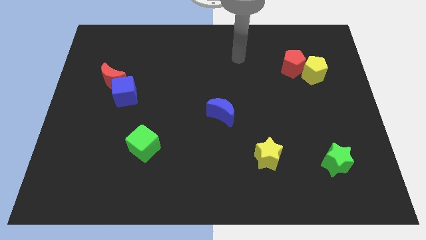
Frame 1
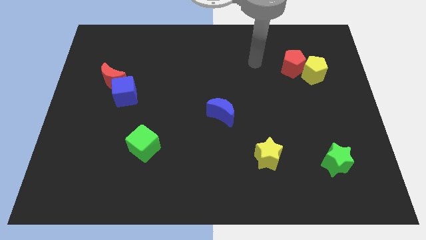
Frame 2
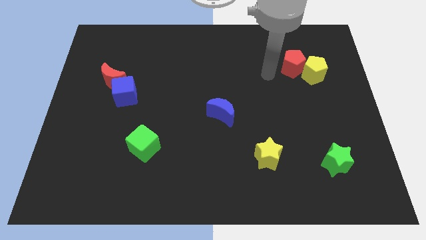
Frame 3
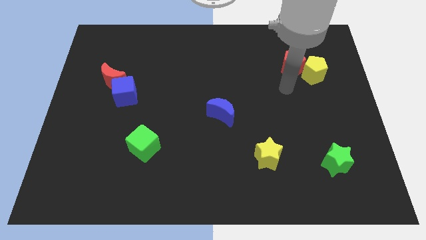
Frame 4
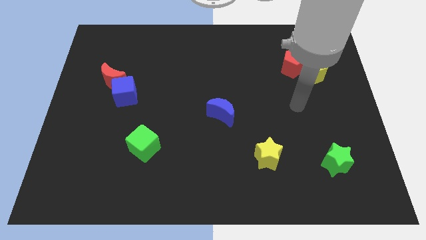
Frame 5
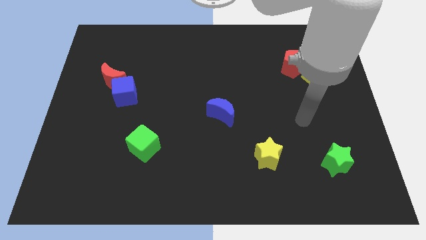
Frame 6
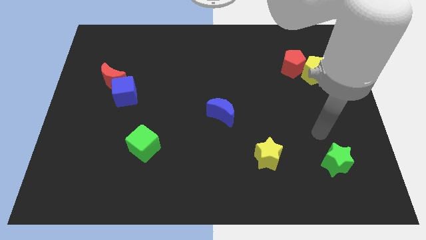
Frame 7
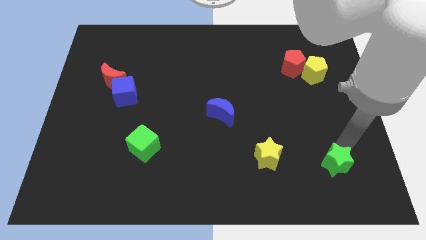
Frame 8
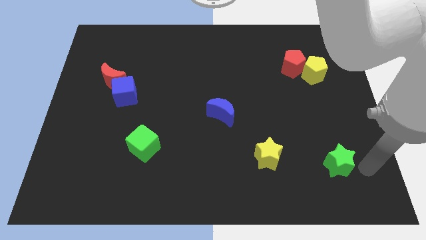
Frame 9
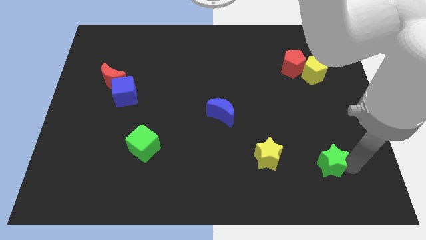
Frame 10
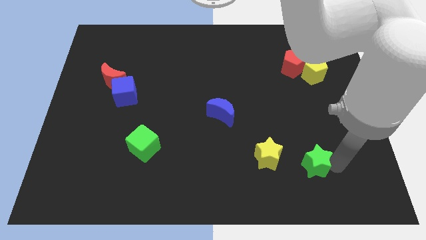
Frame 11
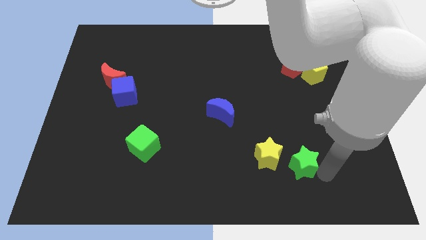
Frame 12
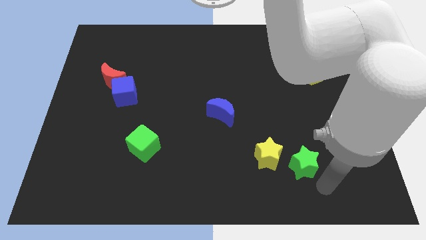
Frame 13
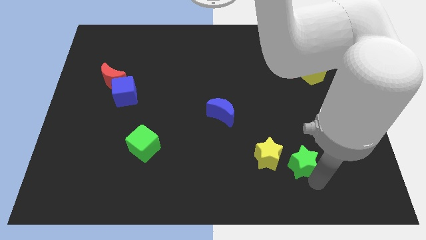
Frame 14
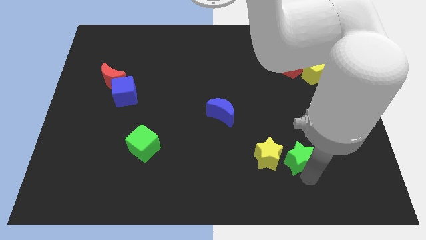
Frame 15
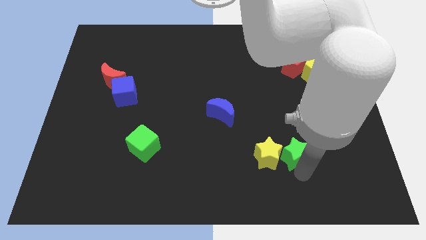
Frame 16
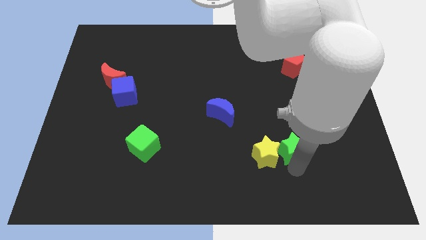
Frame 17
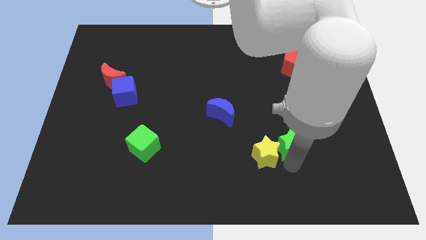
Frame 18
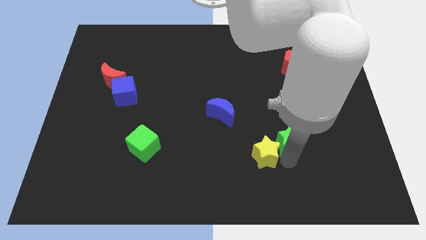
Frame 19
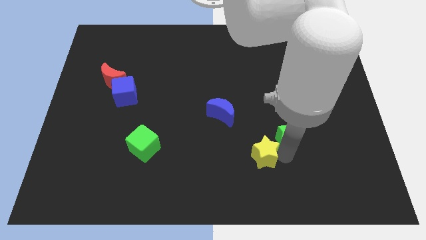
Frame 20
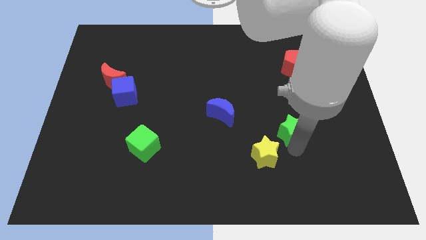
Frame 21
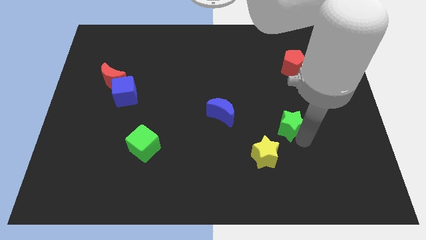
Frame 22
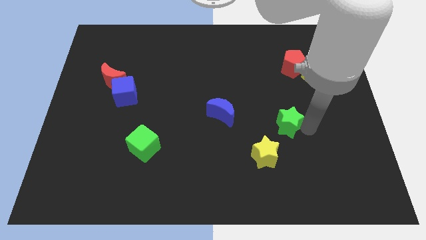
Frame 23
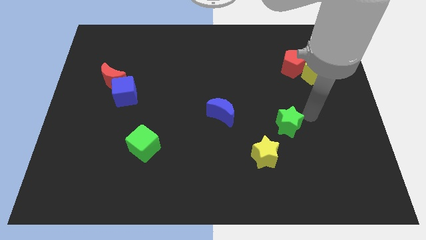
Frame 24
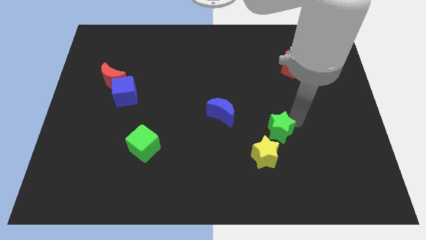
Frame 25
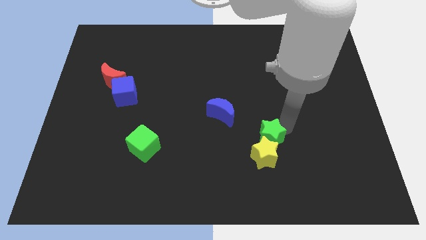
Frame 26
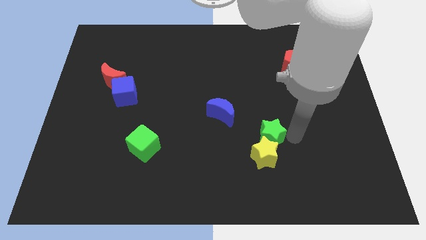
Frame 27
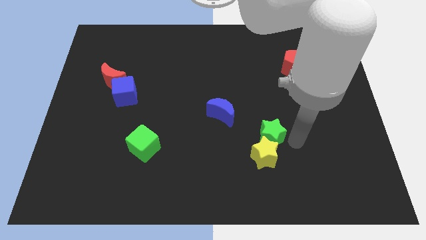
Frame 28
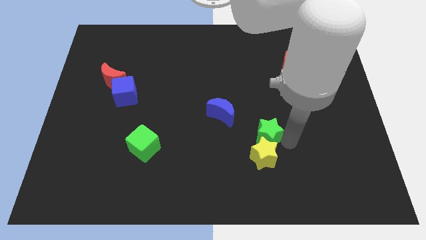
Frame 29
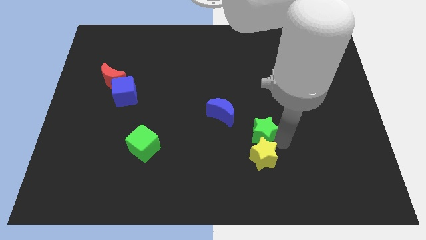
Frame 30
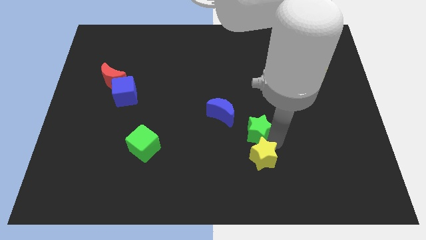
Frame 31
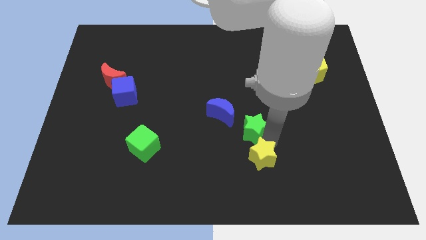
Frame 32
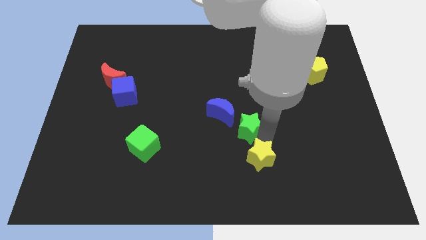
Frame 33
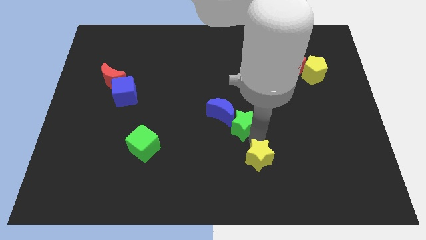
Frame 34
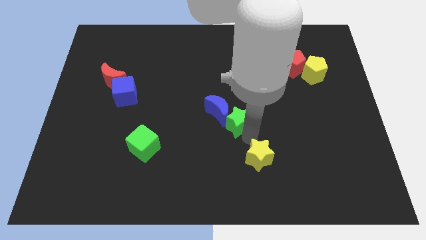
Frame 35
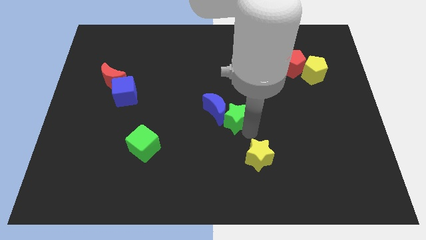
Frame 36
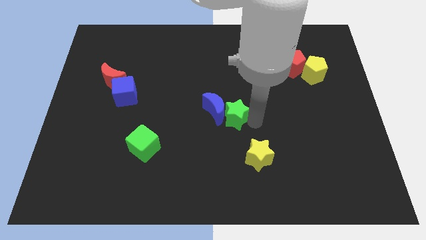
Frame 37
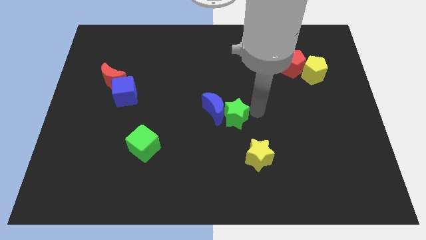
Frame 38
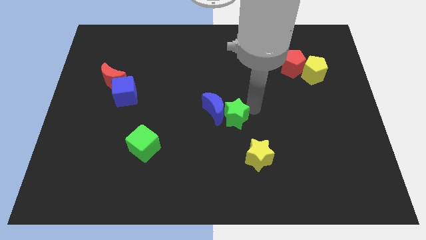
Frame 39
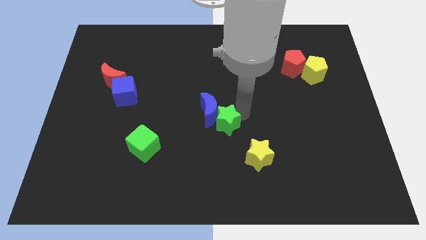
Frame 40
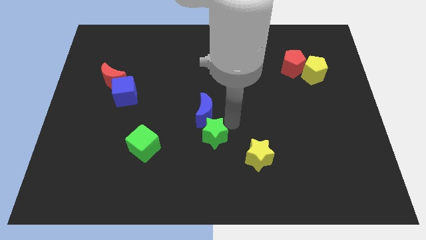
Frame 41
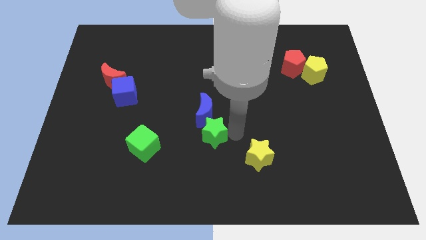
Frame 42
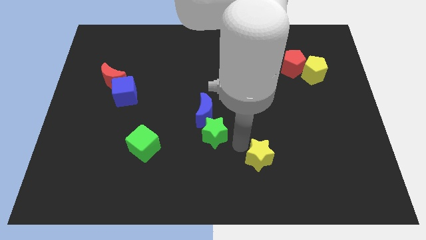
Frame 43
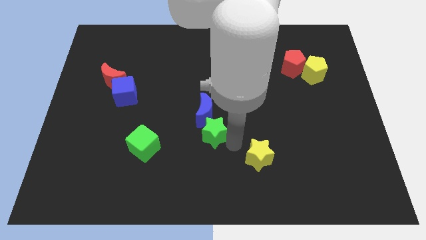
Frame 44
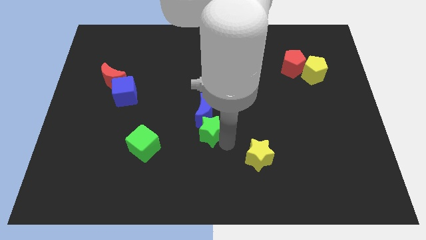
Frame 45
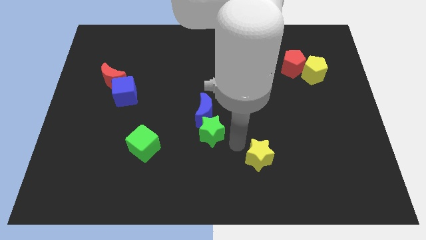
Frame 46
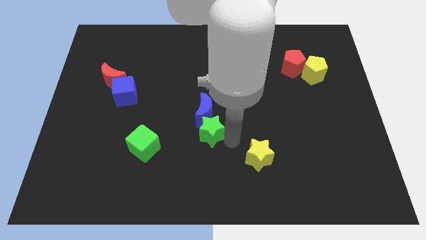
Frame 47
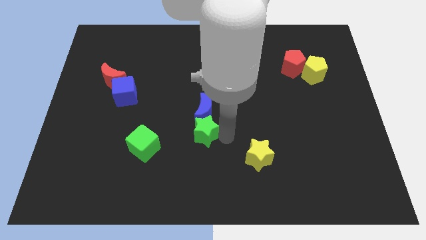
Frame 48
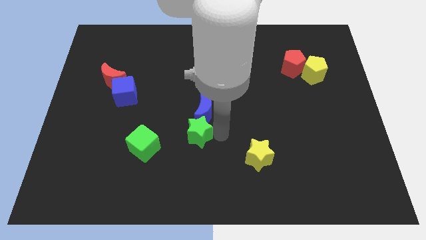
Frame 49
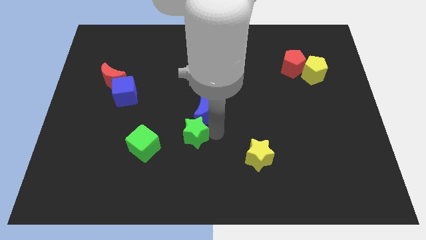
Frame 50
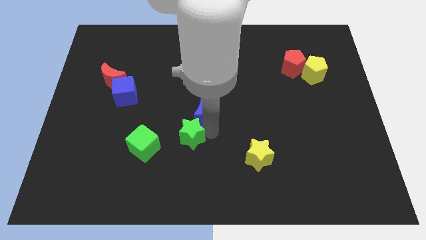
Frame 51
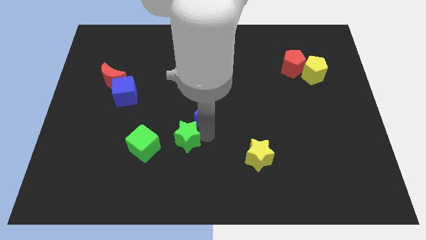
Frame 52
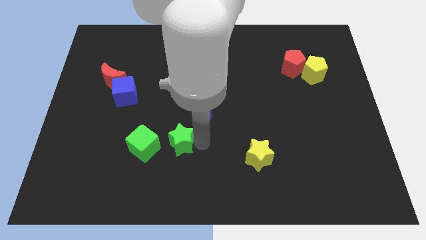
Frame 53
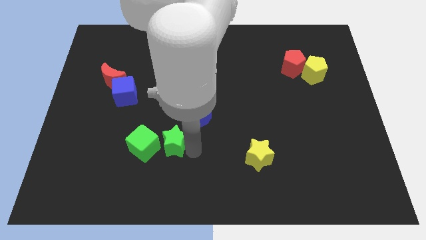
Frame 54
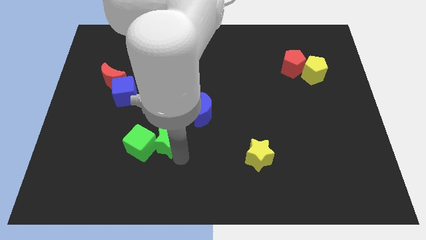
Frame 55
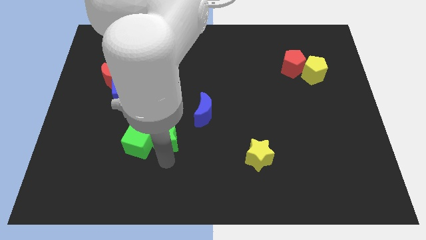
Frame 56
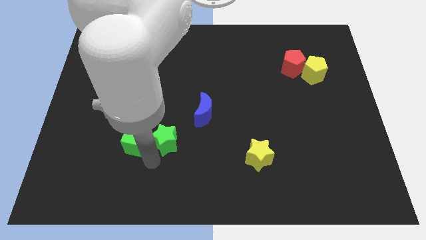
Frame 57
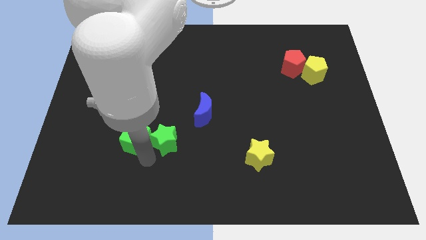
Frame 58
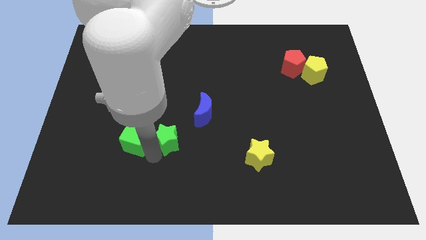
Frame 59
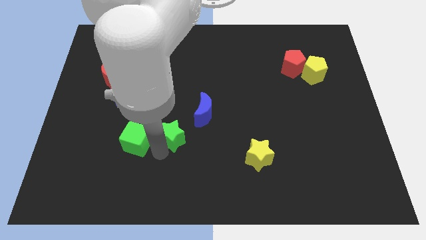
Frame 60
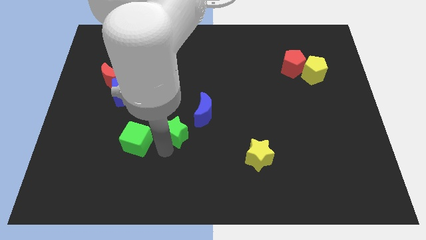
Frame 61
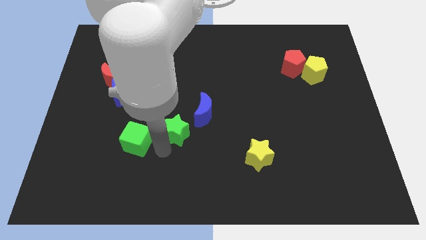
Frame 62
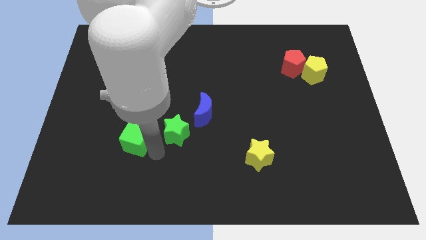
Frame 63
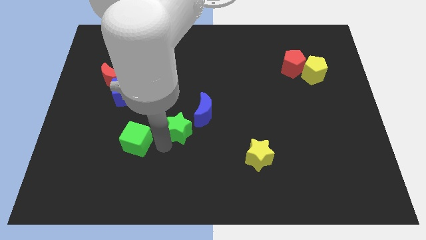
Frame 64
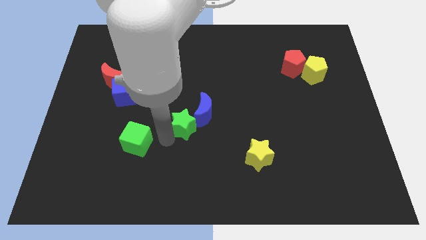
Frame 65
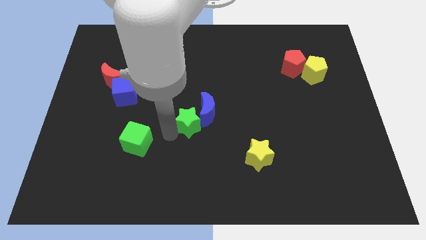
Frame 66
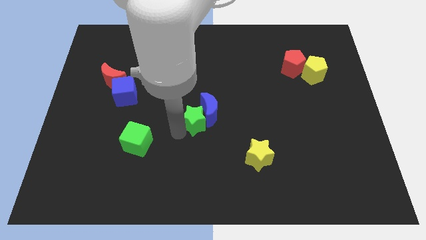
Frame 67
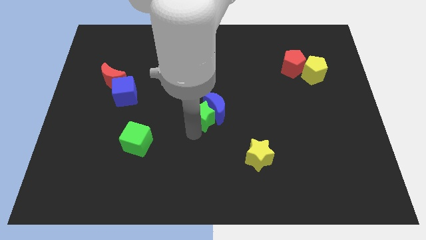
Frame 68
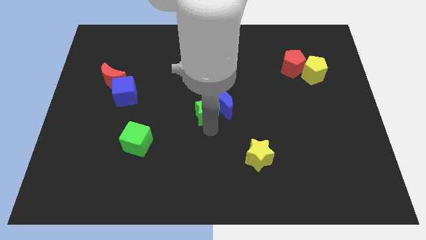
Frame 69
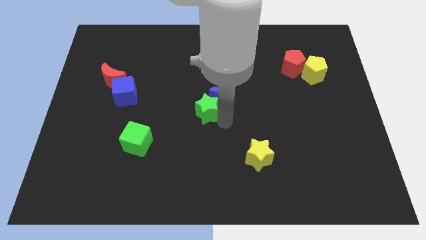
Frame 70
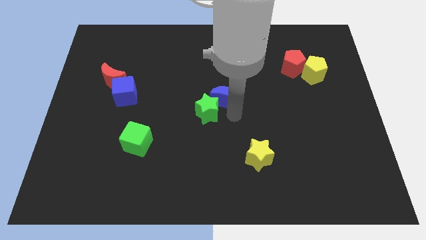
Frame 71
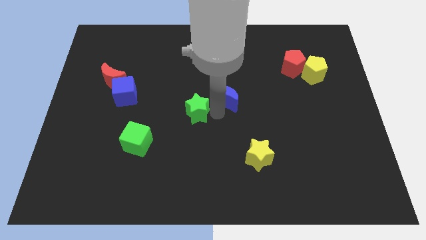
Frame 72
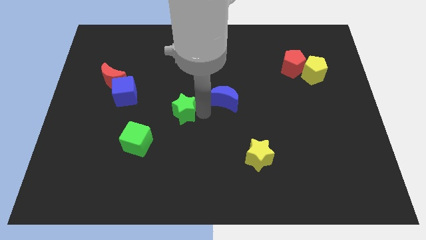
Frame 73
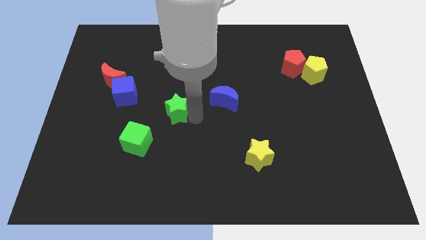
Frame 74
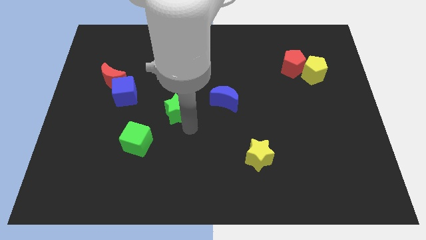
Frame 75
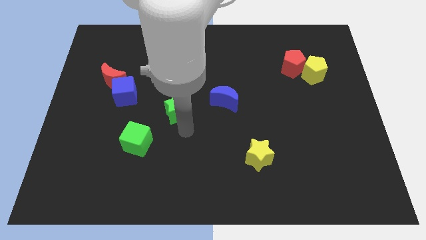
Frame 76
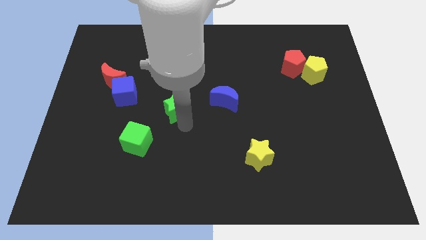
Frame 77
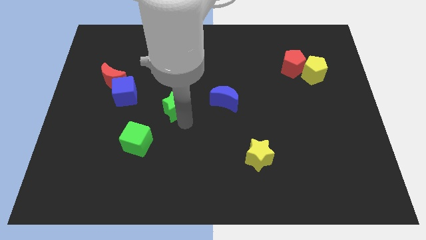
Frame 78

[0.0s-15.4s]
move the green star to the right side of the blue cube
